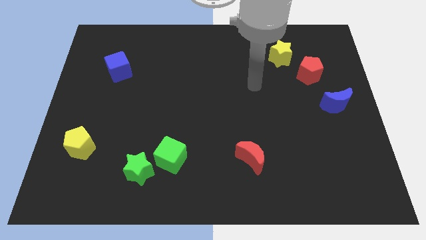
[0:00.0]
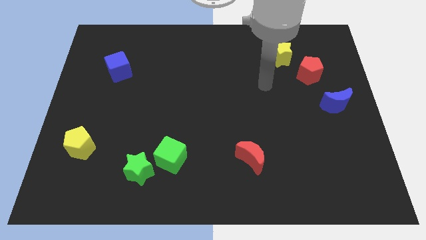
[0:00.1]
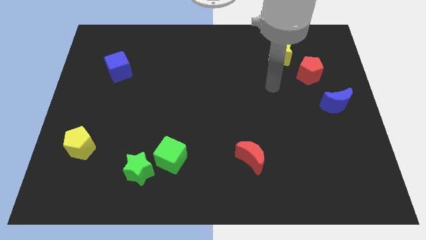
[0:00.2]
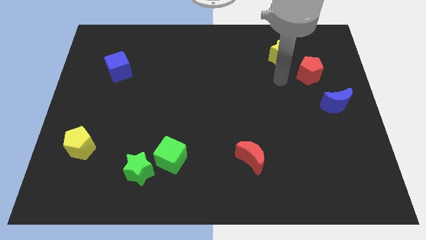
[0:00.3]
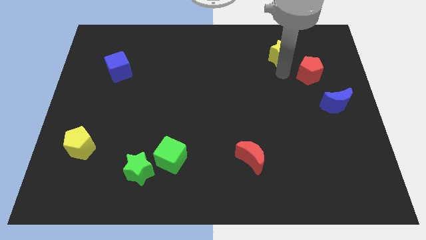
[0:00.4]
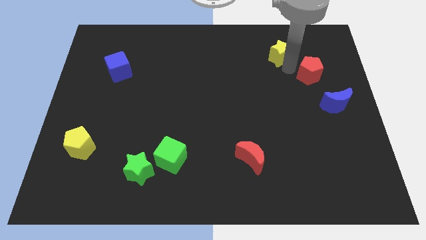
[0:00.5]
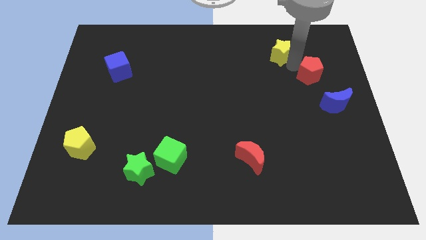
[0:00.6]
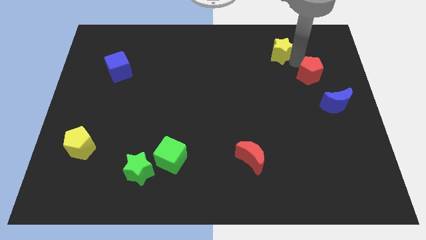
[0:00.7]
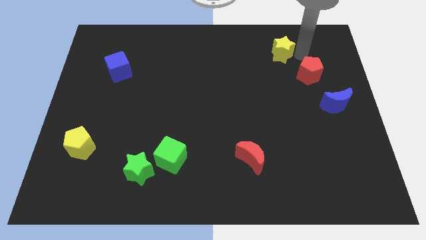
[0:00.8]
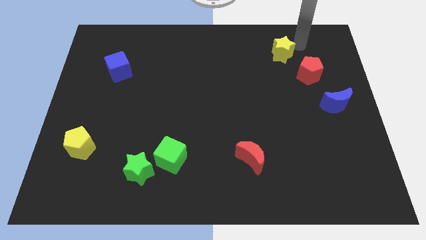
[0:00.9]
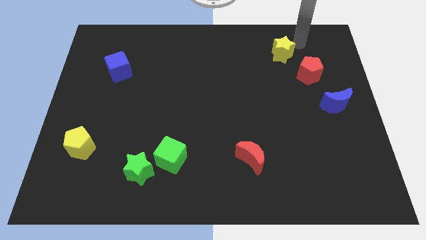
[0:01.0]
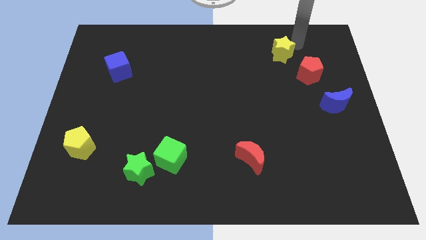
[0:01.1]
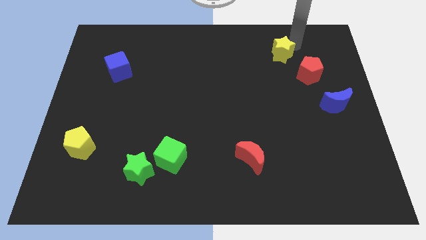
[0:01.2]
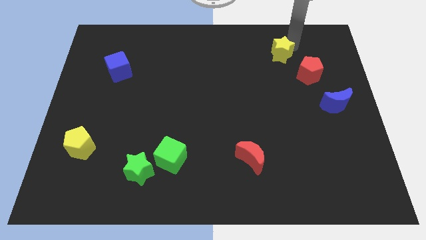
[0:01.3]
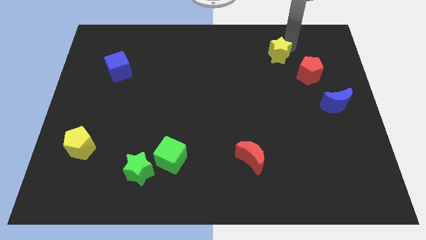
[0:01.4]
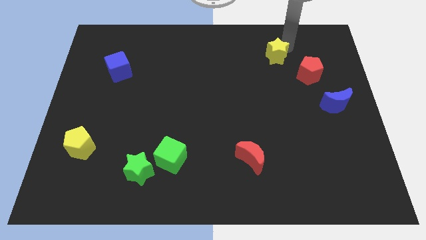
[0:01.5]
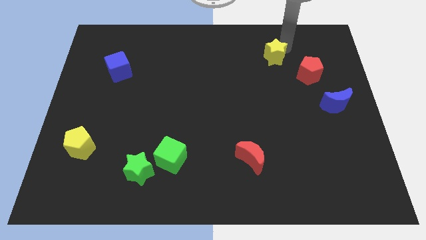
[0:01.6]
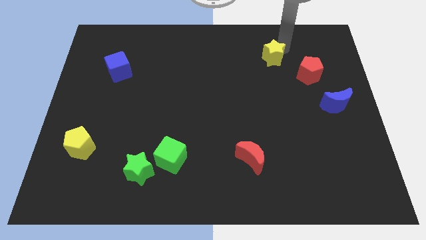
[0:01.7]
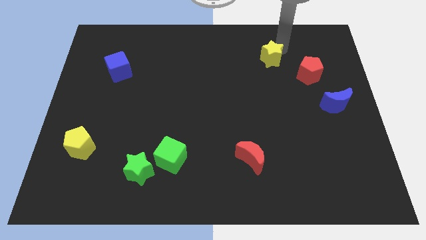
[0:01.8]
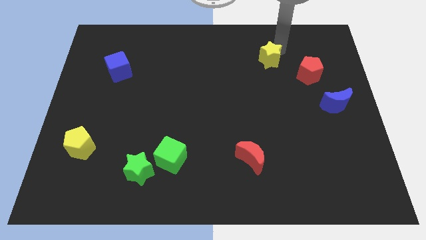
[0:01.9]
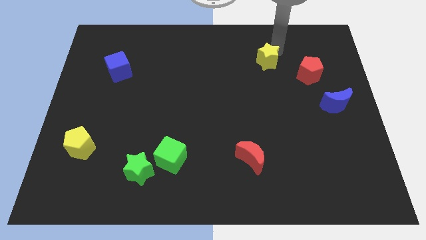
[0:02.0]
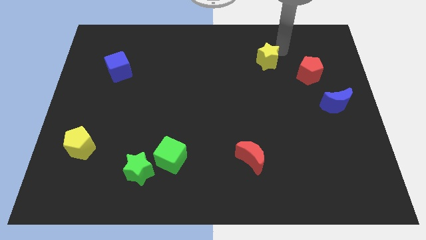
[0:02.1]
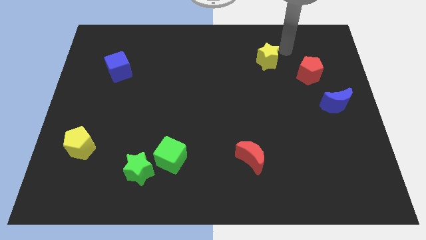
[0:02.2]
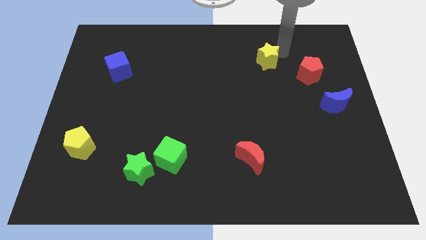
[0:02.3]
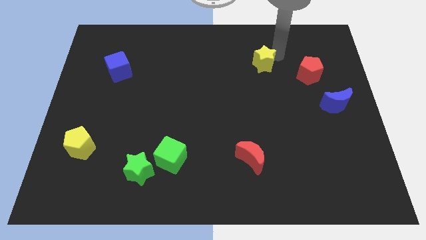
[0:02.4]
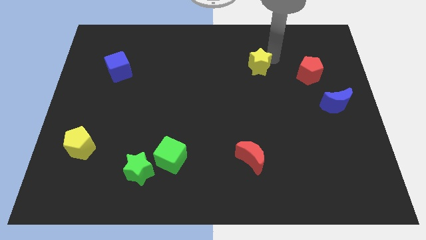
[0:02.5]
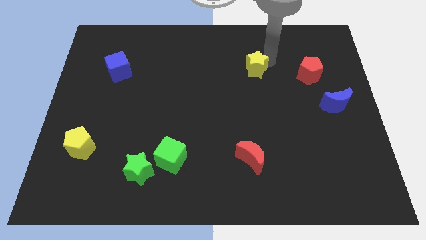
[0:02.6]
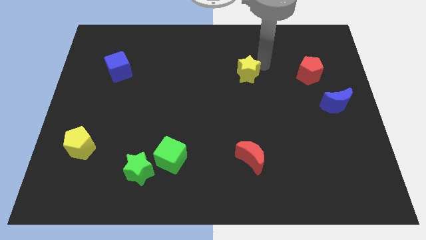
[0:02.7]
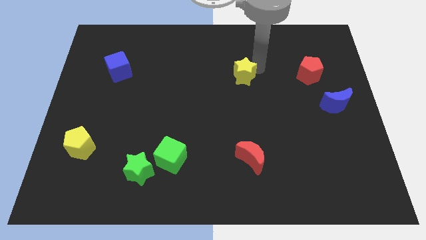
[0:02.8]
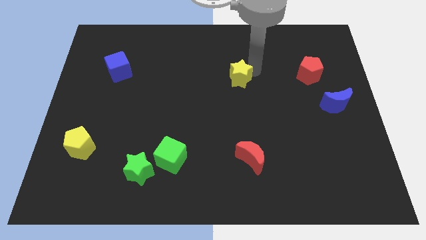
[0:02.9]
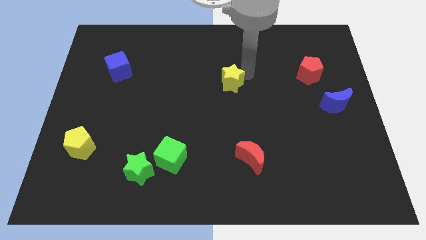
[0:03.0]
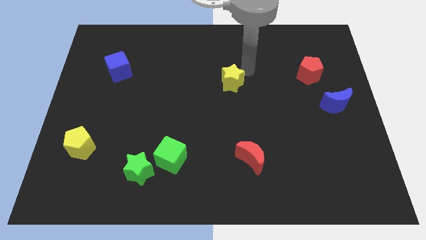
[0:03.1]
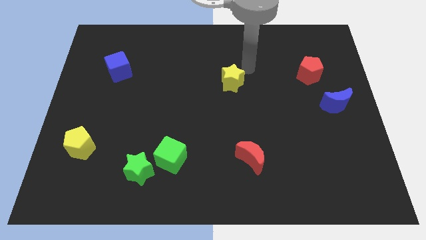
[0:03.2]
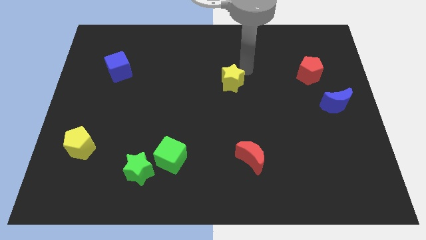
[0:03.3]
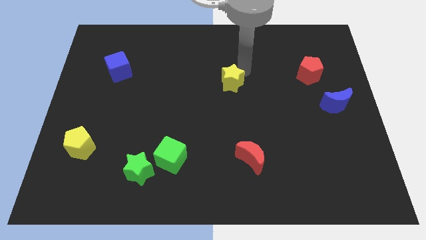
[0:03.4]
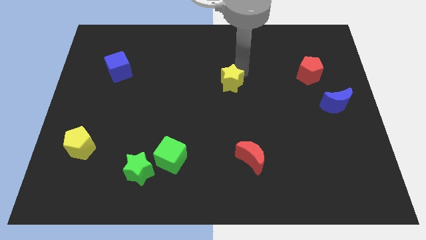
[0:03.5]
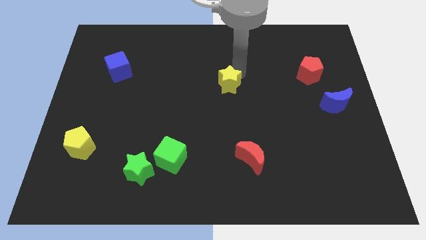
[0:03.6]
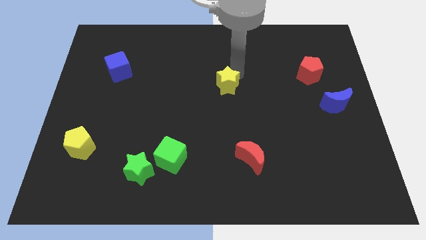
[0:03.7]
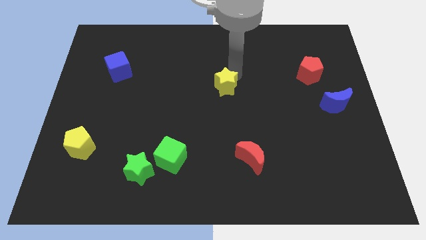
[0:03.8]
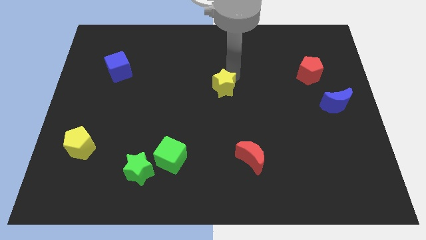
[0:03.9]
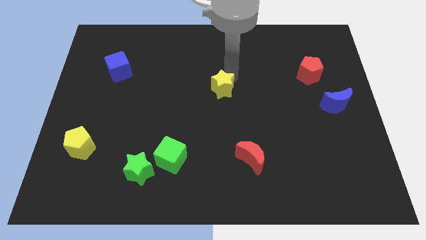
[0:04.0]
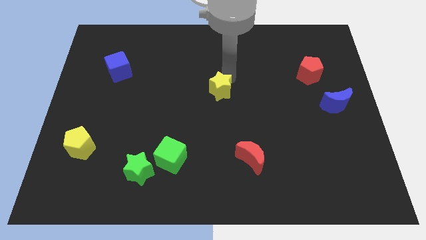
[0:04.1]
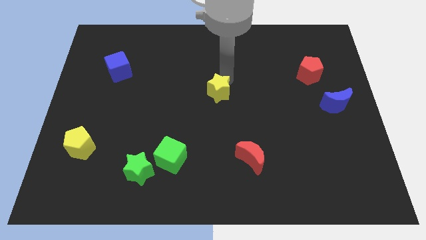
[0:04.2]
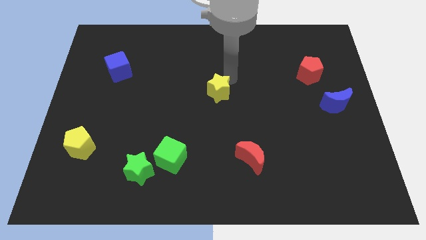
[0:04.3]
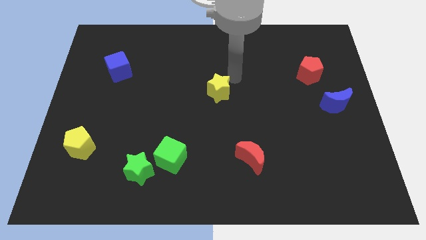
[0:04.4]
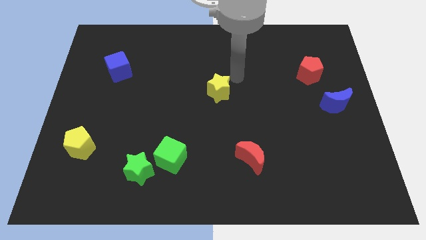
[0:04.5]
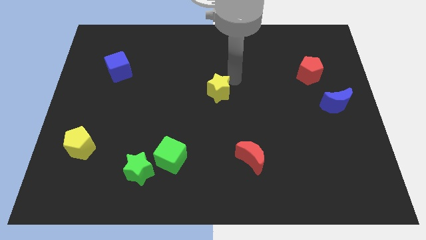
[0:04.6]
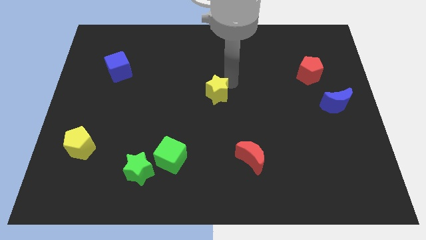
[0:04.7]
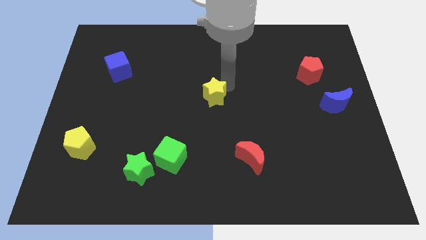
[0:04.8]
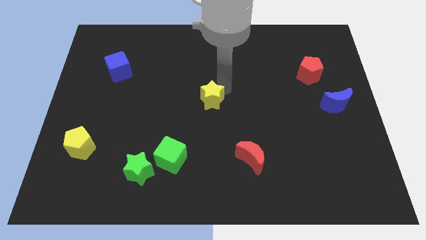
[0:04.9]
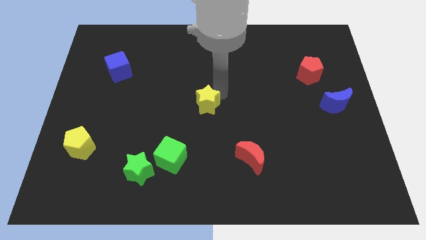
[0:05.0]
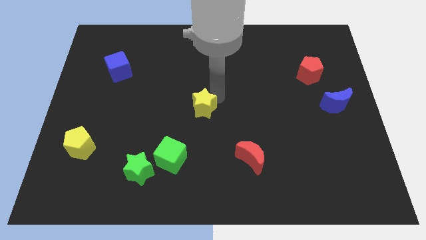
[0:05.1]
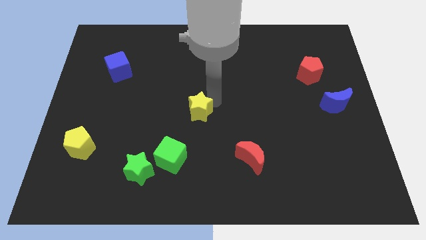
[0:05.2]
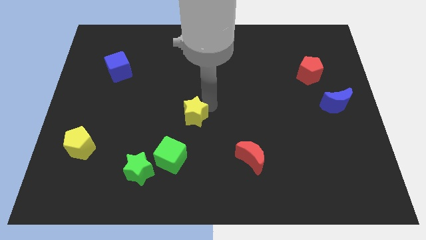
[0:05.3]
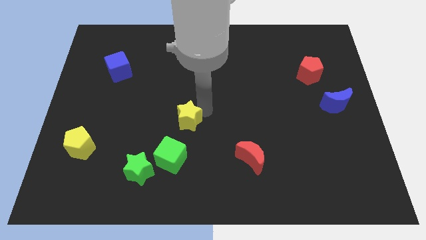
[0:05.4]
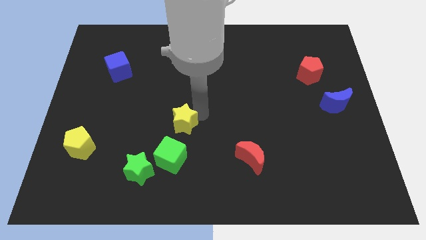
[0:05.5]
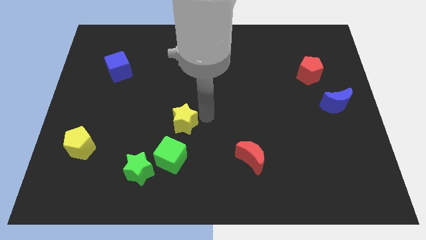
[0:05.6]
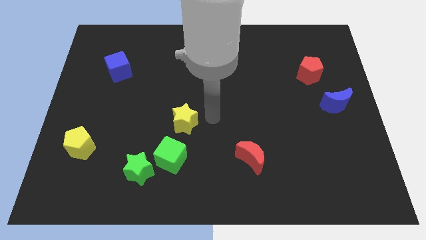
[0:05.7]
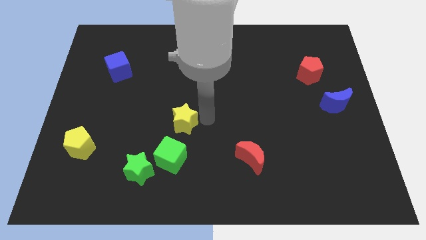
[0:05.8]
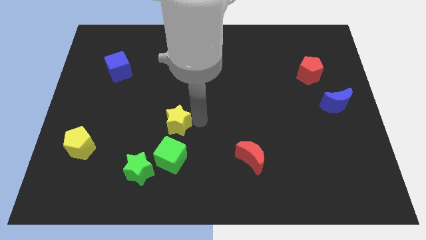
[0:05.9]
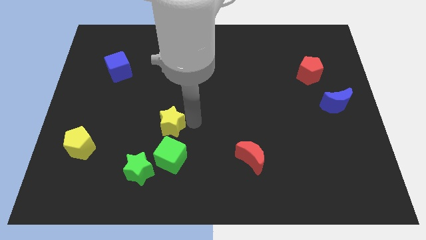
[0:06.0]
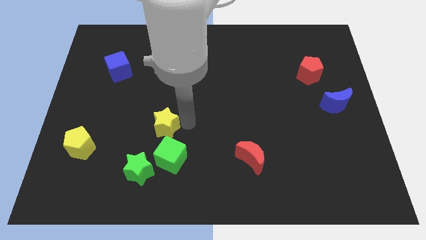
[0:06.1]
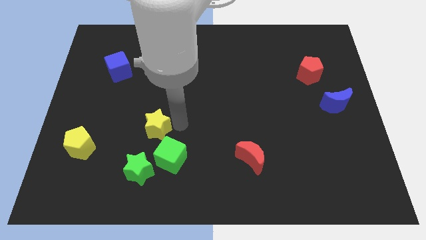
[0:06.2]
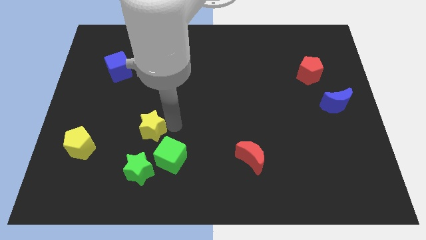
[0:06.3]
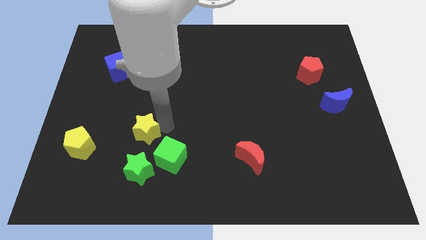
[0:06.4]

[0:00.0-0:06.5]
move the yellow star to the right of the yellow pentagon

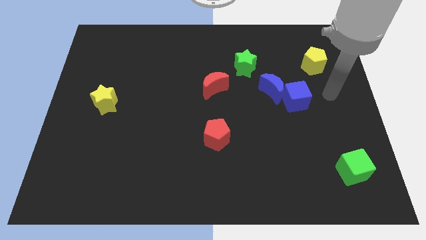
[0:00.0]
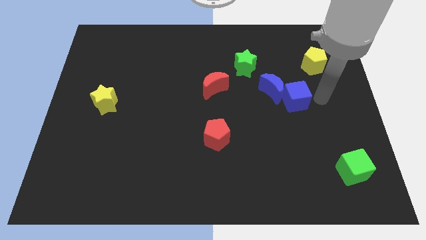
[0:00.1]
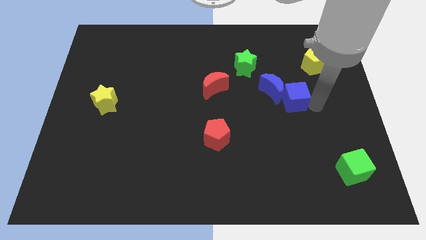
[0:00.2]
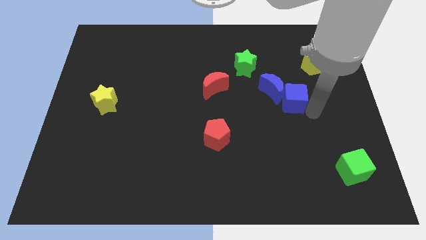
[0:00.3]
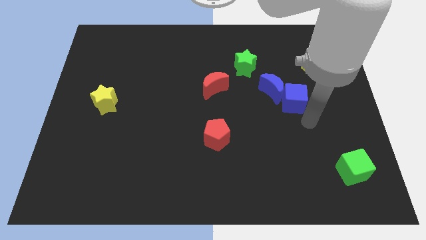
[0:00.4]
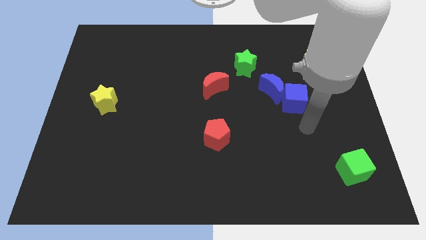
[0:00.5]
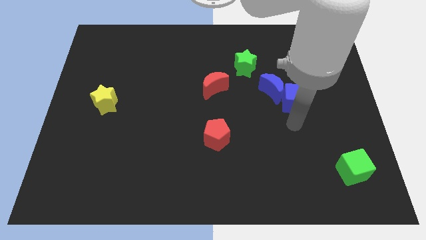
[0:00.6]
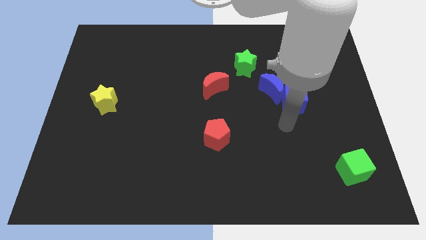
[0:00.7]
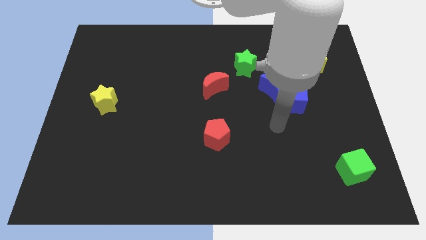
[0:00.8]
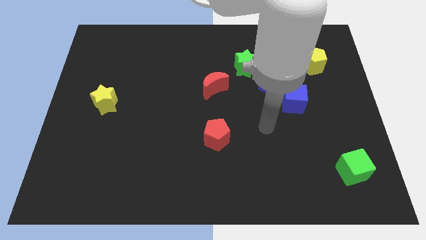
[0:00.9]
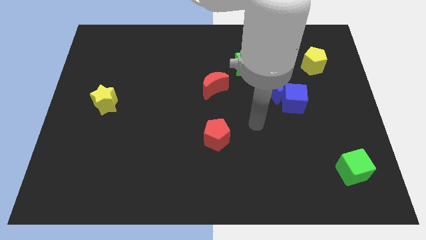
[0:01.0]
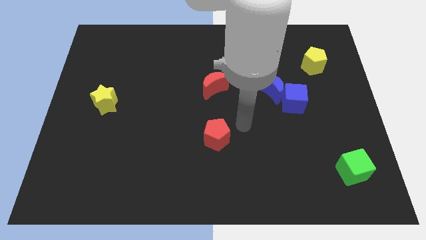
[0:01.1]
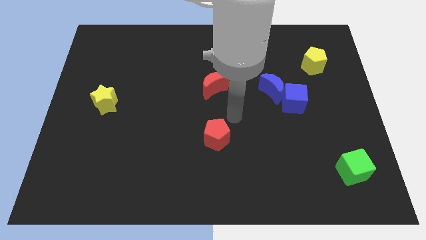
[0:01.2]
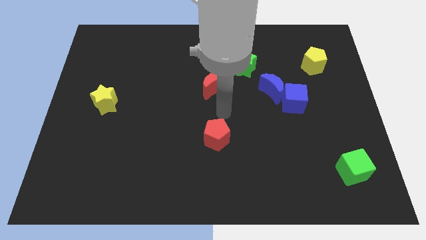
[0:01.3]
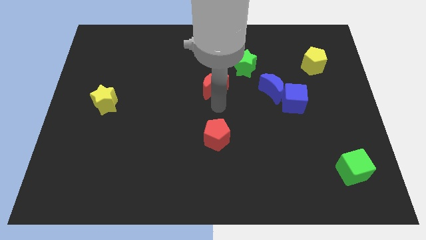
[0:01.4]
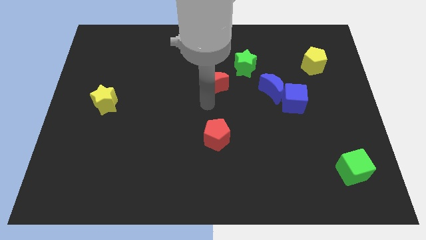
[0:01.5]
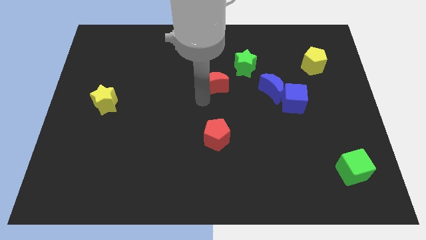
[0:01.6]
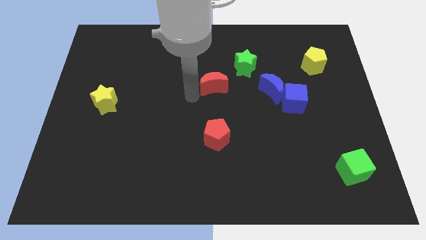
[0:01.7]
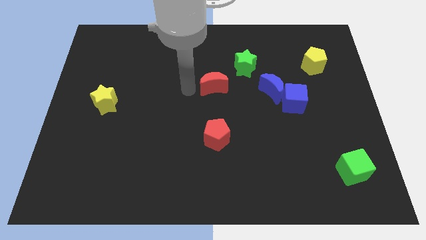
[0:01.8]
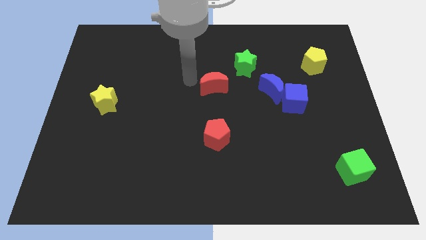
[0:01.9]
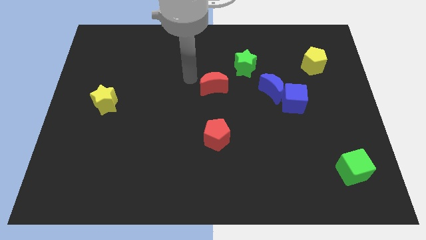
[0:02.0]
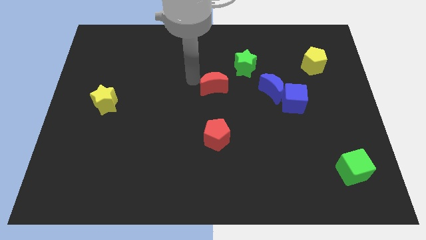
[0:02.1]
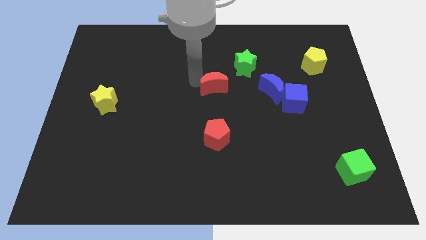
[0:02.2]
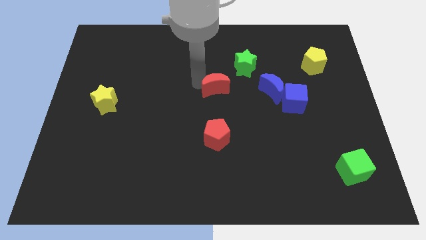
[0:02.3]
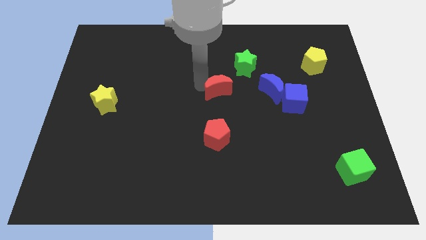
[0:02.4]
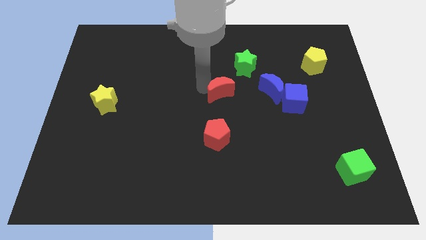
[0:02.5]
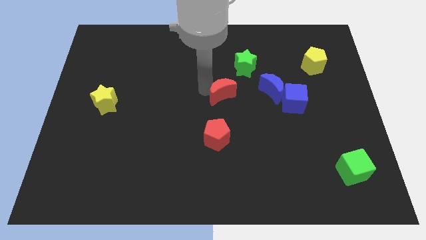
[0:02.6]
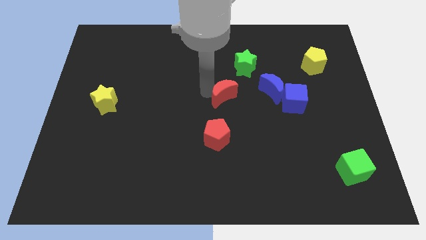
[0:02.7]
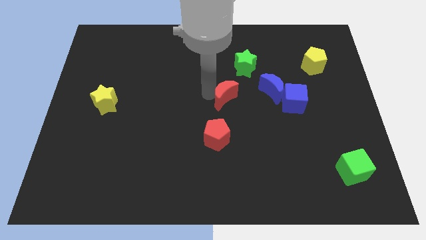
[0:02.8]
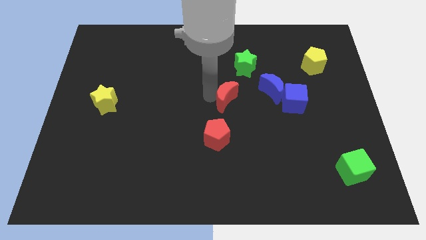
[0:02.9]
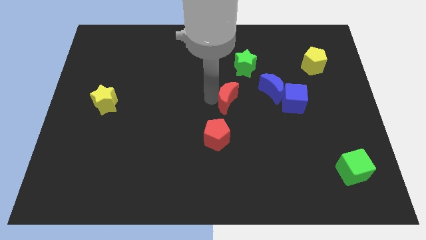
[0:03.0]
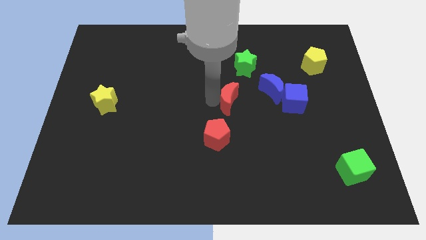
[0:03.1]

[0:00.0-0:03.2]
push the red moon to the bottom of the green star
